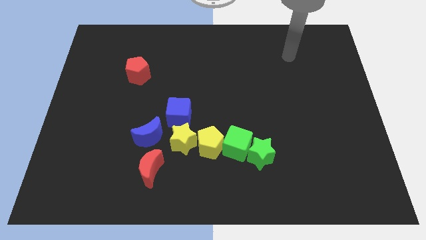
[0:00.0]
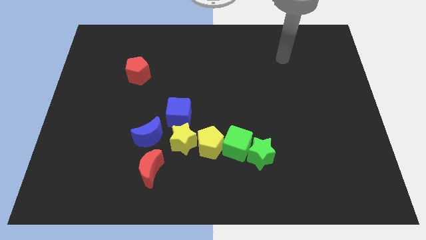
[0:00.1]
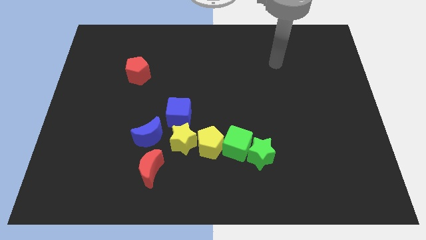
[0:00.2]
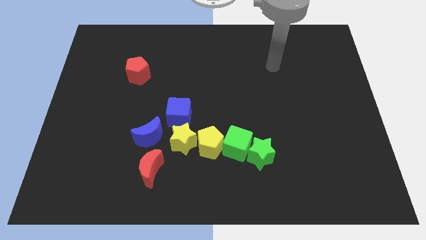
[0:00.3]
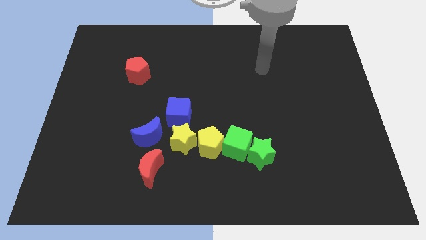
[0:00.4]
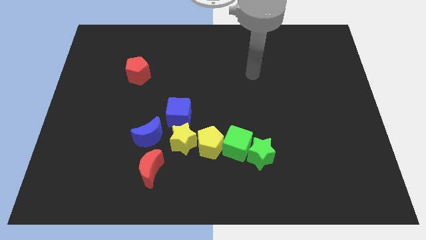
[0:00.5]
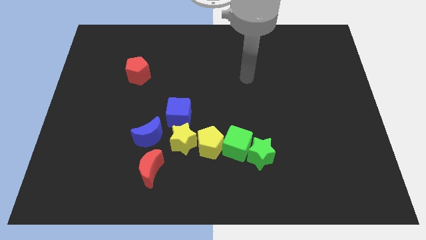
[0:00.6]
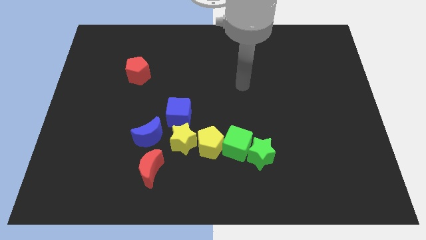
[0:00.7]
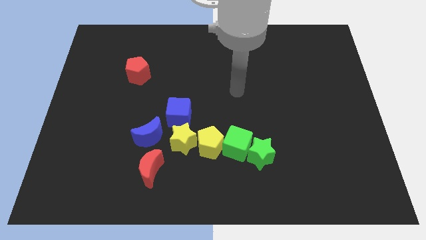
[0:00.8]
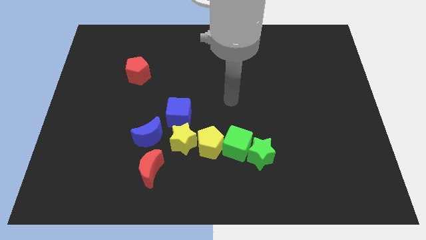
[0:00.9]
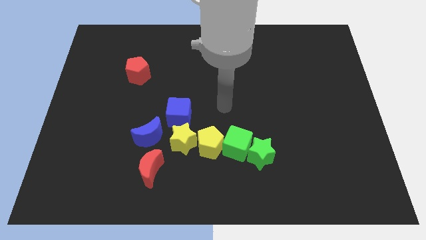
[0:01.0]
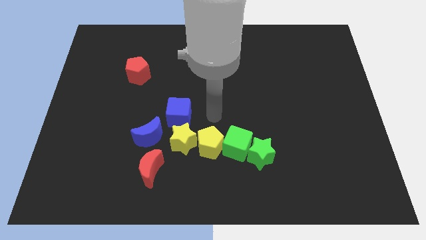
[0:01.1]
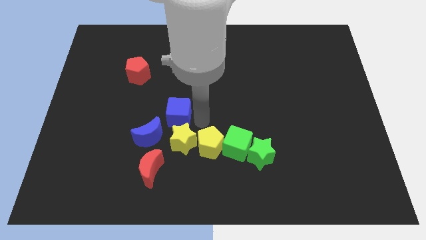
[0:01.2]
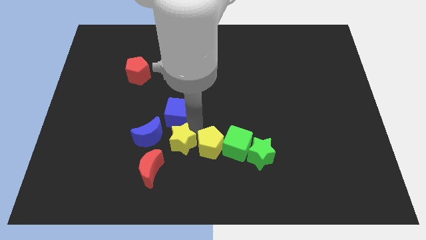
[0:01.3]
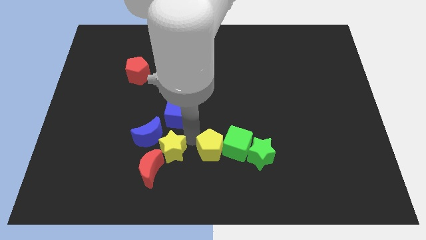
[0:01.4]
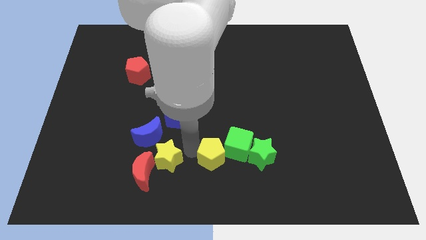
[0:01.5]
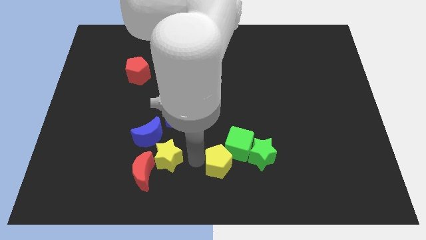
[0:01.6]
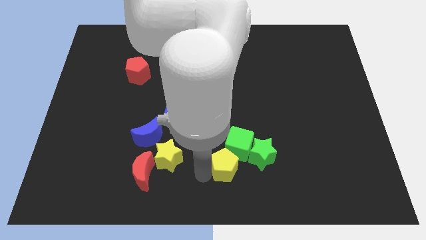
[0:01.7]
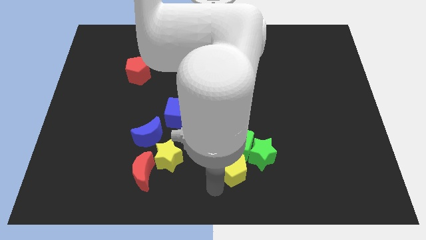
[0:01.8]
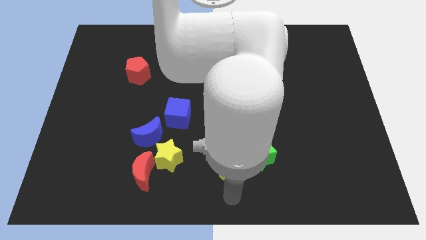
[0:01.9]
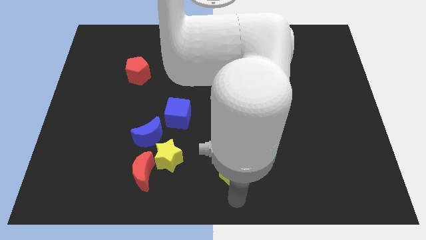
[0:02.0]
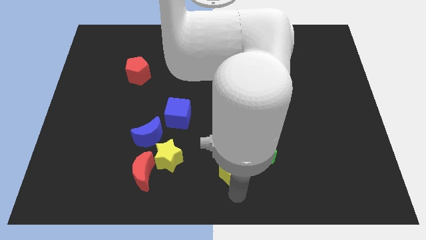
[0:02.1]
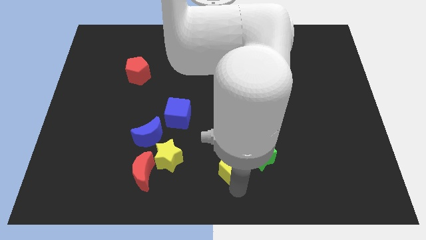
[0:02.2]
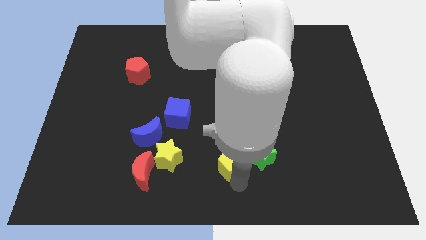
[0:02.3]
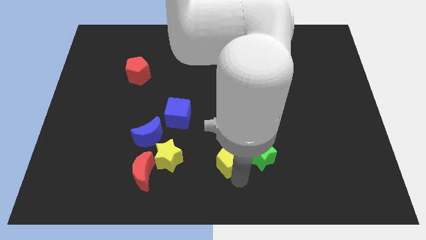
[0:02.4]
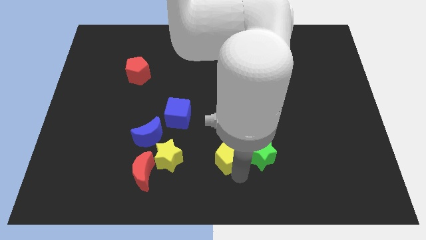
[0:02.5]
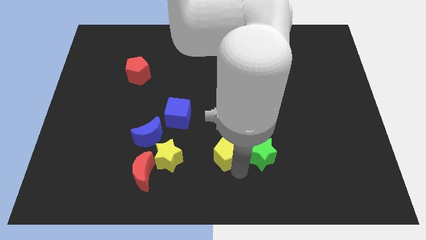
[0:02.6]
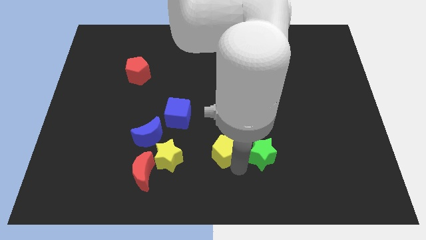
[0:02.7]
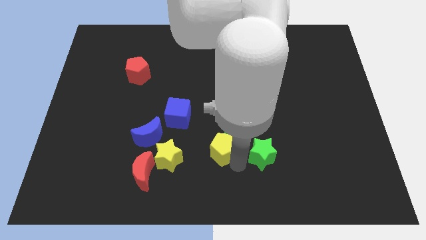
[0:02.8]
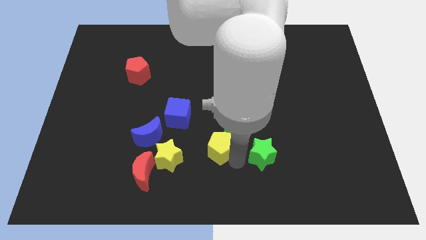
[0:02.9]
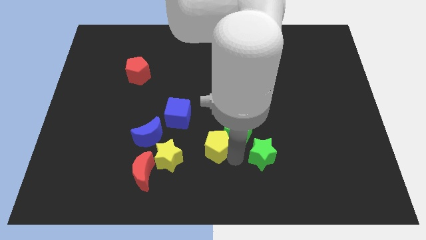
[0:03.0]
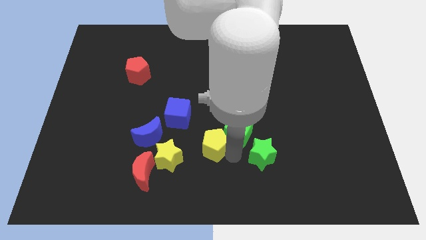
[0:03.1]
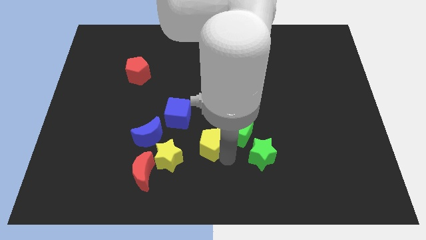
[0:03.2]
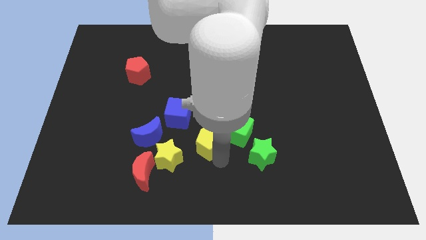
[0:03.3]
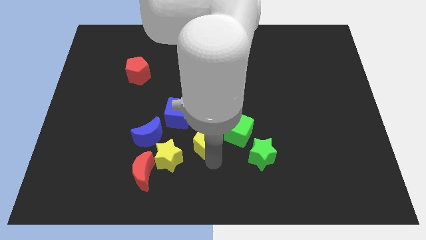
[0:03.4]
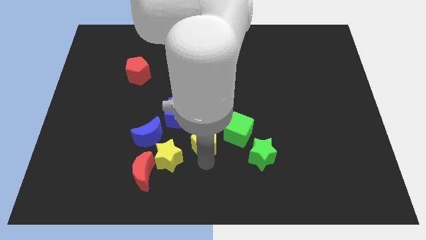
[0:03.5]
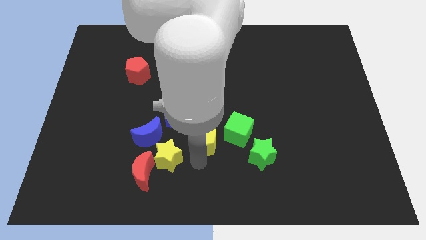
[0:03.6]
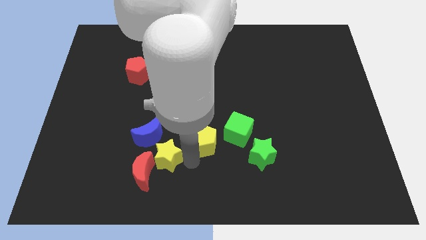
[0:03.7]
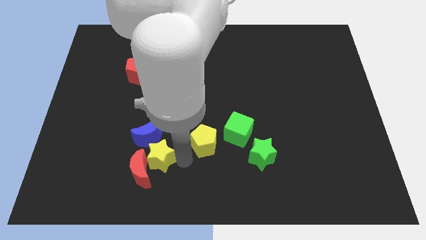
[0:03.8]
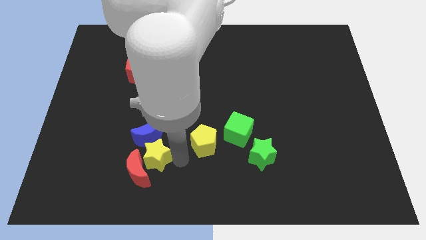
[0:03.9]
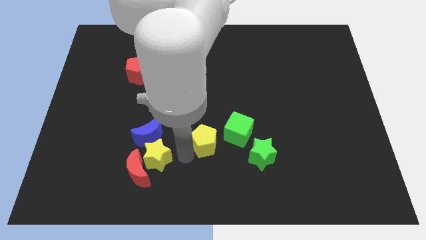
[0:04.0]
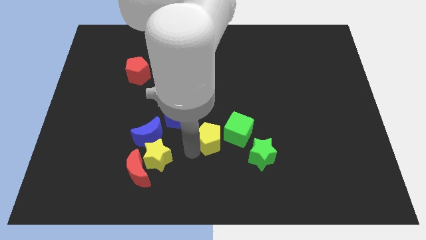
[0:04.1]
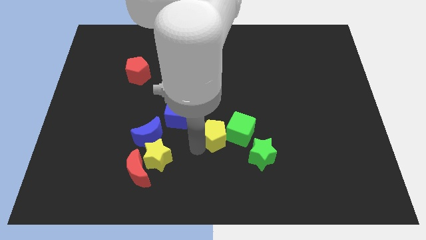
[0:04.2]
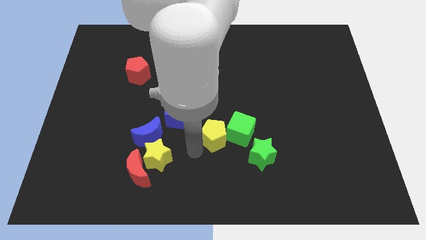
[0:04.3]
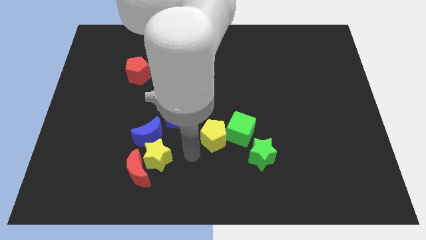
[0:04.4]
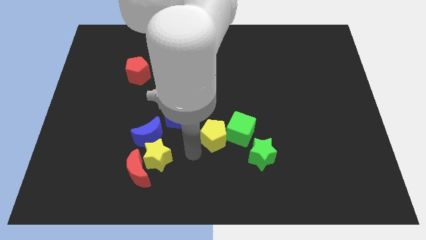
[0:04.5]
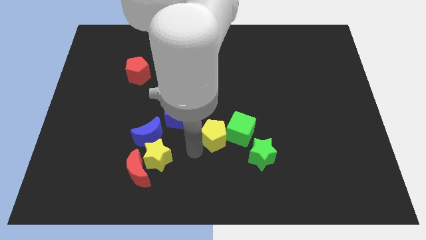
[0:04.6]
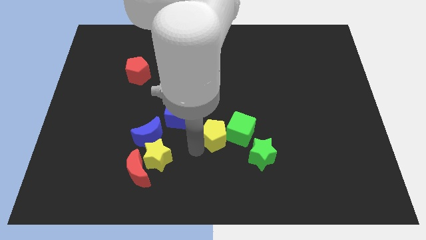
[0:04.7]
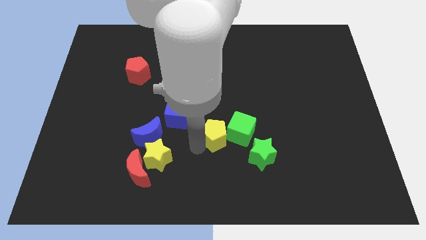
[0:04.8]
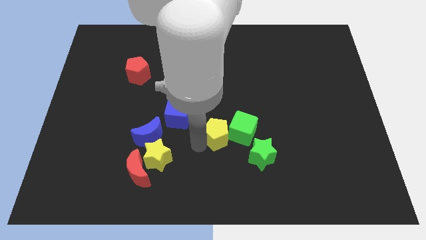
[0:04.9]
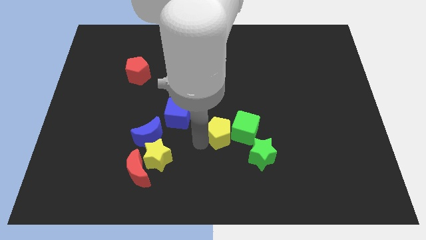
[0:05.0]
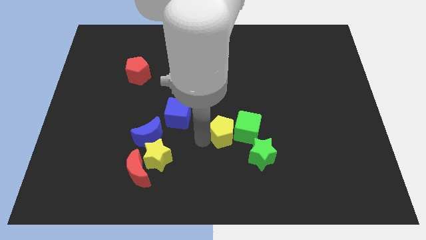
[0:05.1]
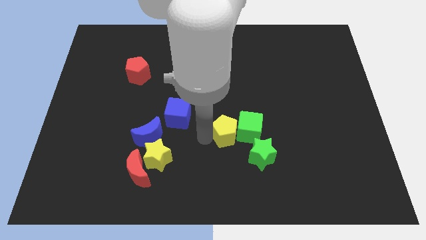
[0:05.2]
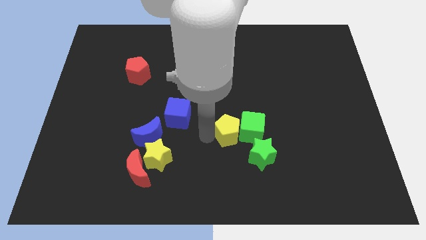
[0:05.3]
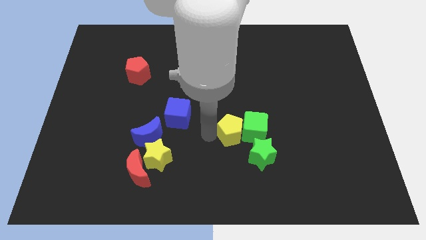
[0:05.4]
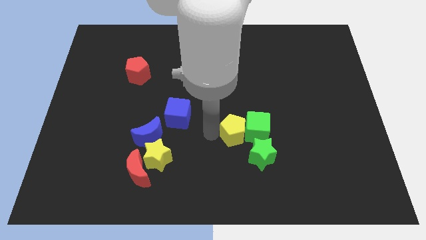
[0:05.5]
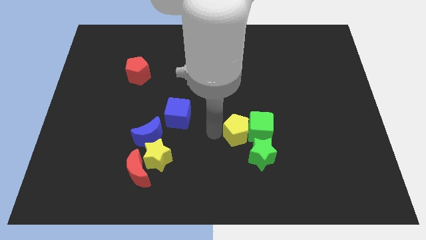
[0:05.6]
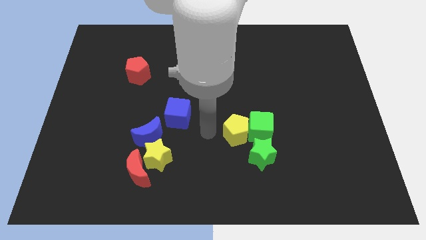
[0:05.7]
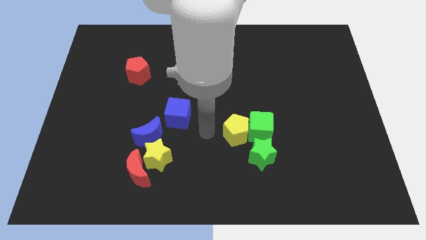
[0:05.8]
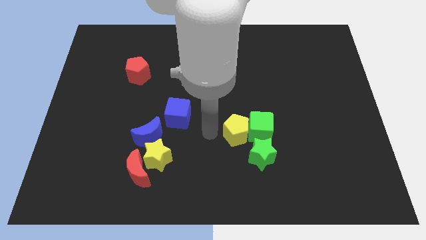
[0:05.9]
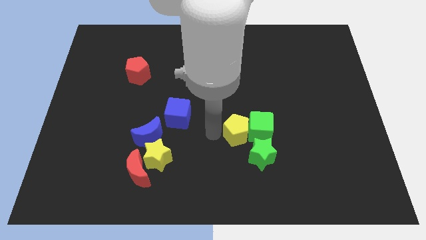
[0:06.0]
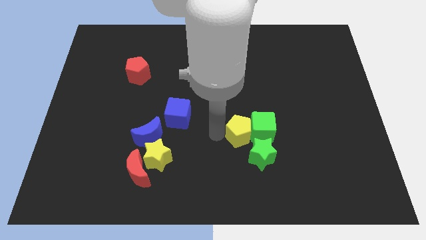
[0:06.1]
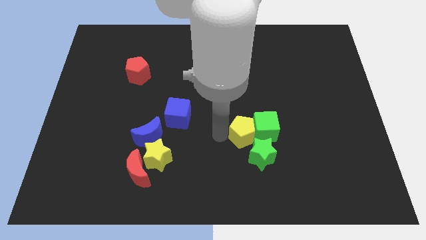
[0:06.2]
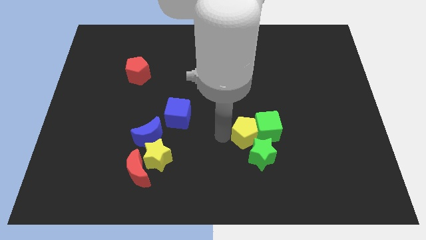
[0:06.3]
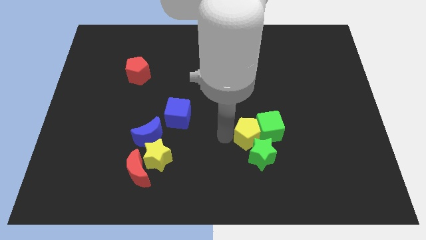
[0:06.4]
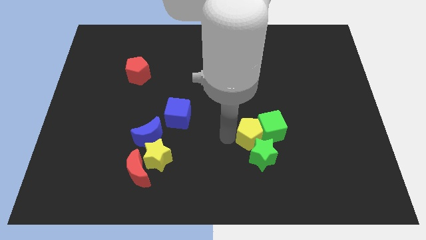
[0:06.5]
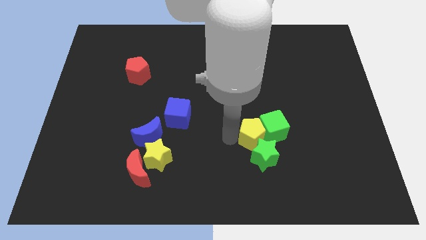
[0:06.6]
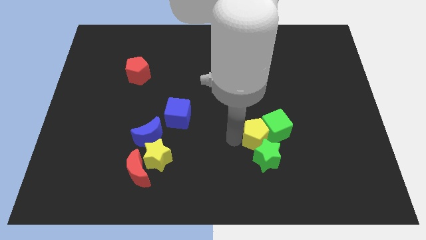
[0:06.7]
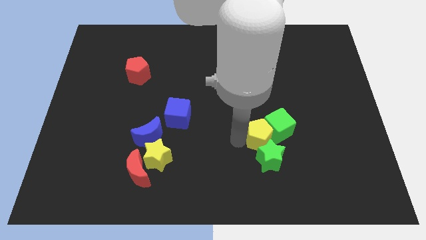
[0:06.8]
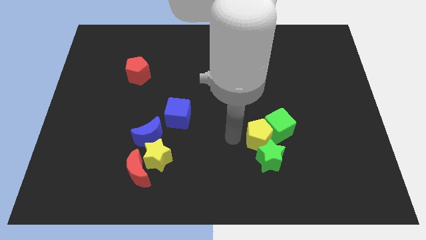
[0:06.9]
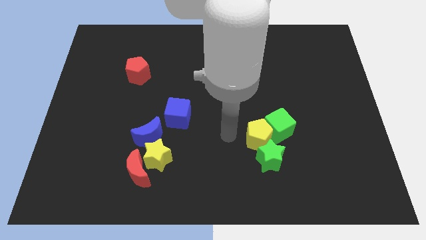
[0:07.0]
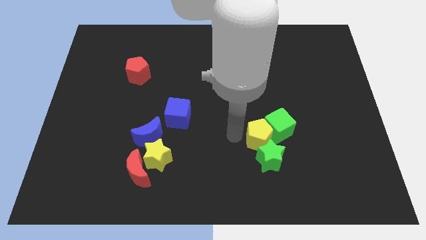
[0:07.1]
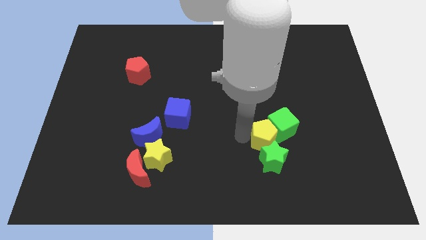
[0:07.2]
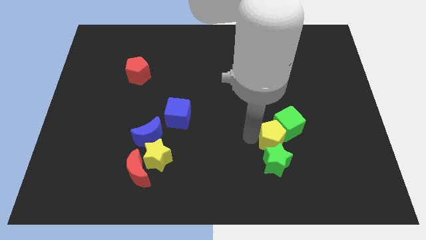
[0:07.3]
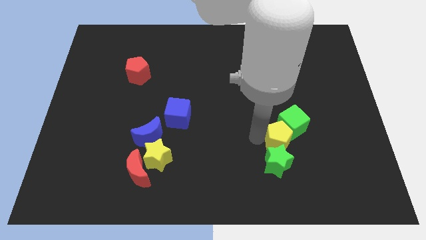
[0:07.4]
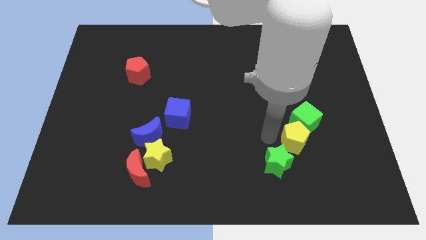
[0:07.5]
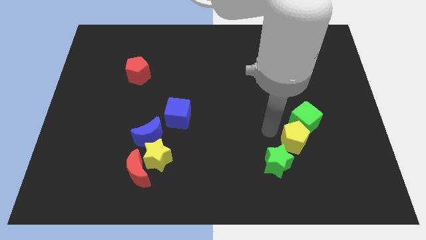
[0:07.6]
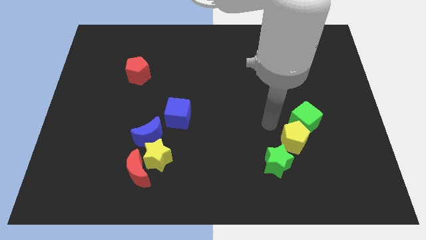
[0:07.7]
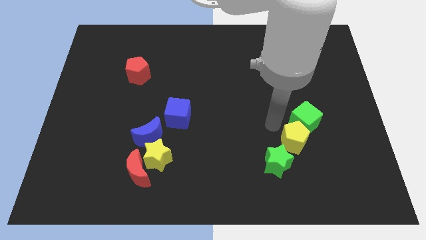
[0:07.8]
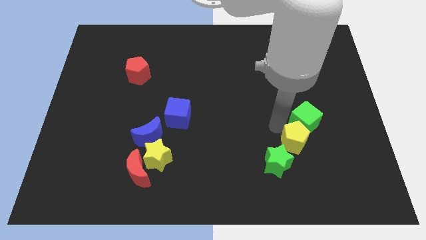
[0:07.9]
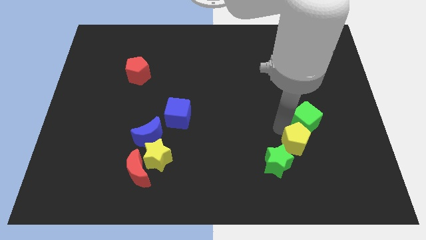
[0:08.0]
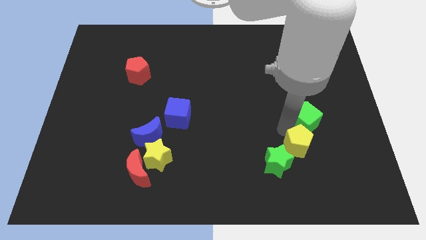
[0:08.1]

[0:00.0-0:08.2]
put the yellow pentagon to the right of the green star
